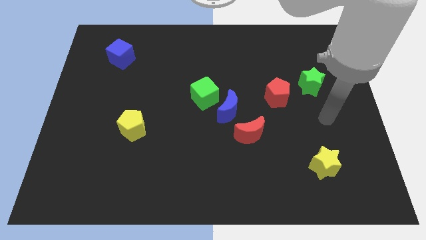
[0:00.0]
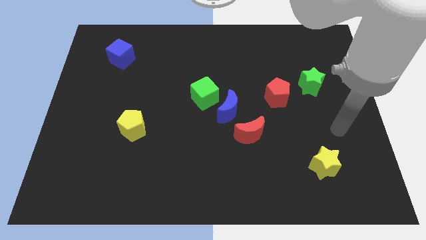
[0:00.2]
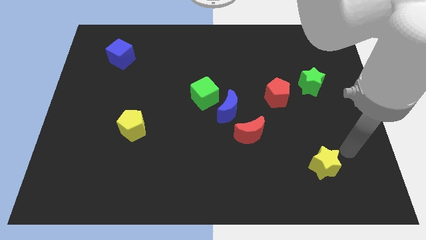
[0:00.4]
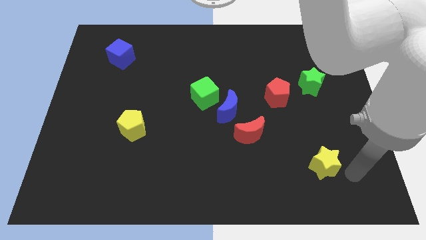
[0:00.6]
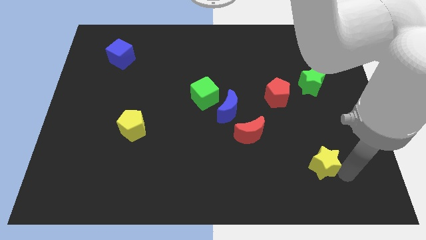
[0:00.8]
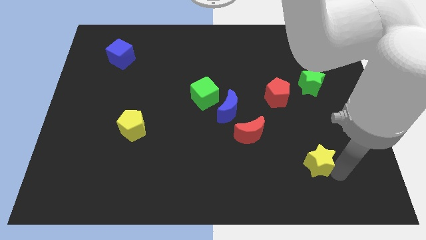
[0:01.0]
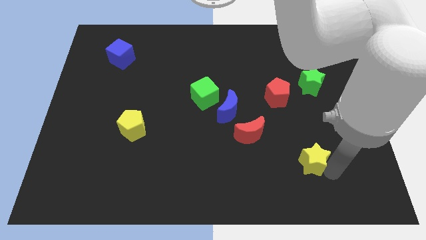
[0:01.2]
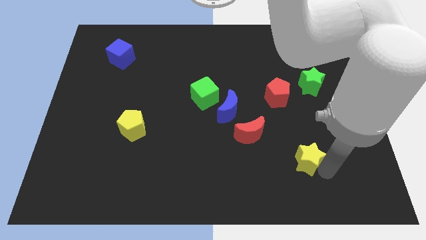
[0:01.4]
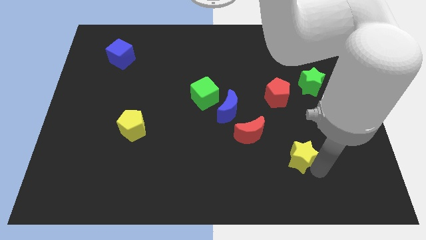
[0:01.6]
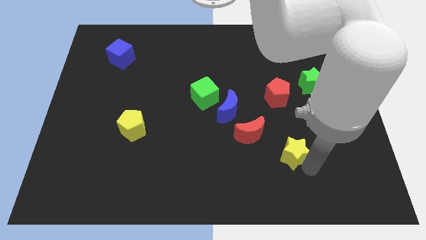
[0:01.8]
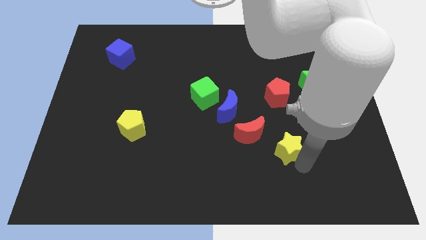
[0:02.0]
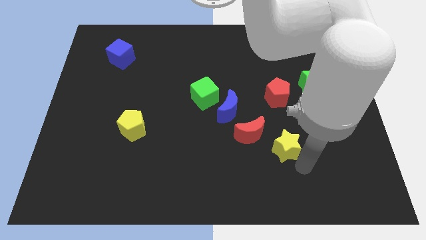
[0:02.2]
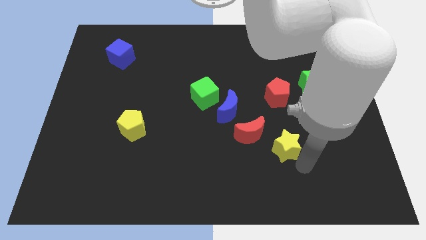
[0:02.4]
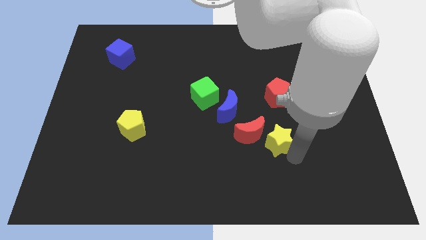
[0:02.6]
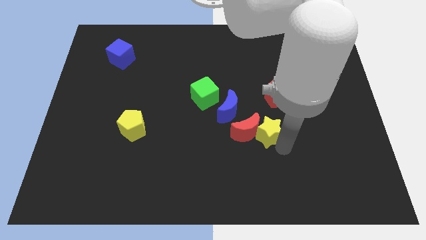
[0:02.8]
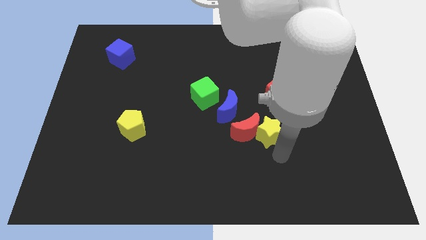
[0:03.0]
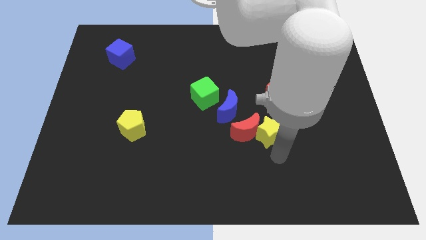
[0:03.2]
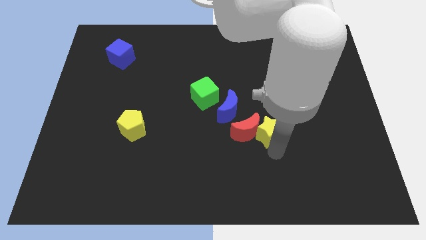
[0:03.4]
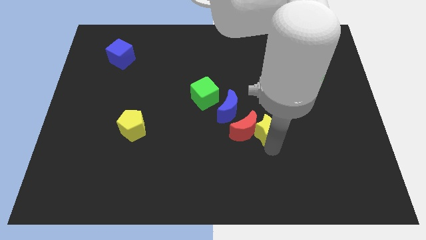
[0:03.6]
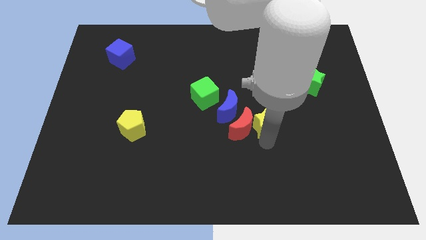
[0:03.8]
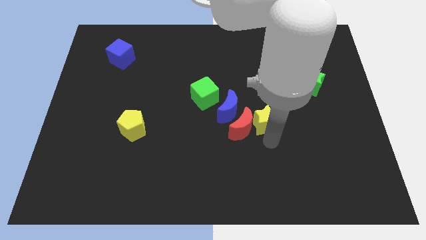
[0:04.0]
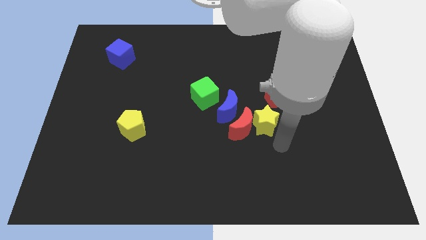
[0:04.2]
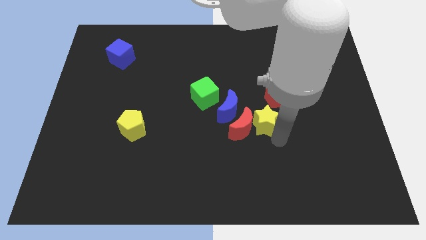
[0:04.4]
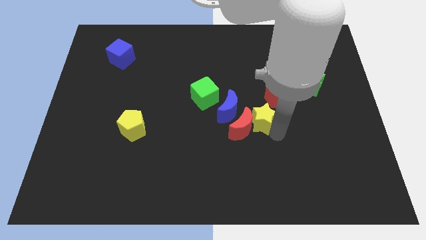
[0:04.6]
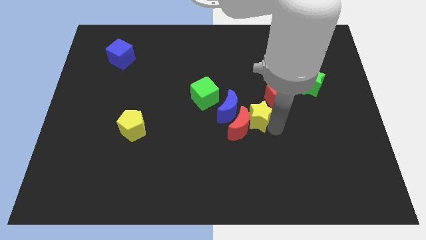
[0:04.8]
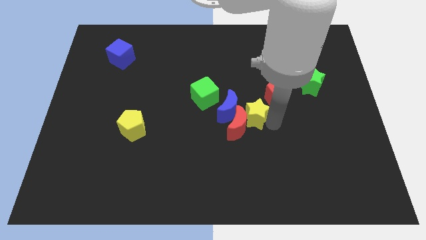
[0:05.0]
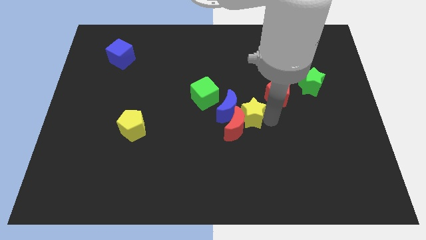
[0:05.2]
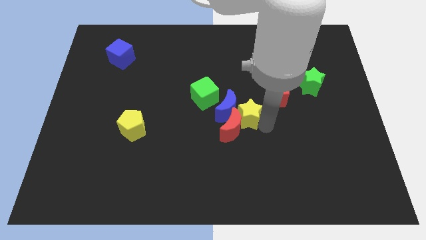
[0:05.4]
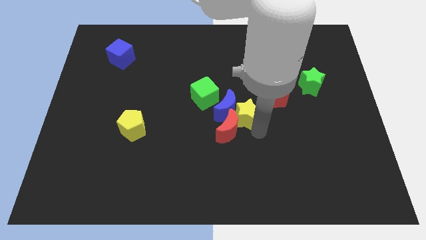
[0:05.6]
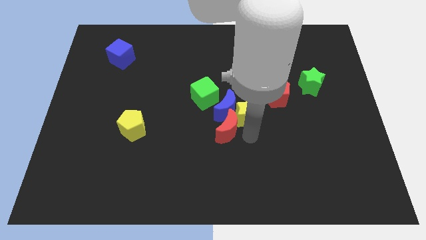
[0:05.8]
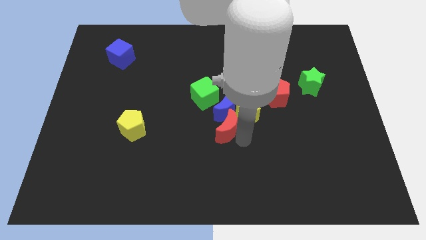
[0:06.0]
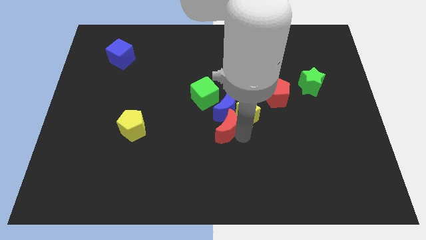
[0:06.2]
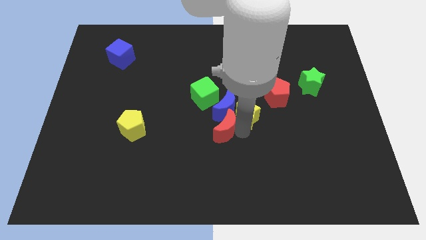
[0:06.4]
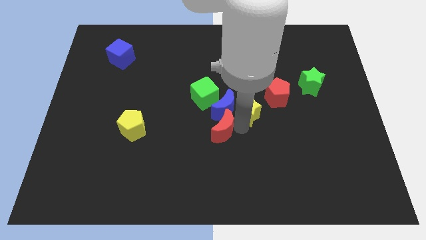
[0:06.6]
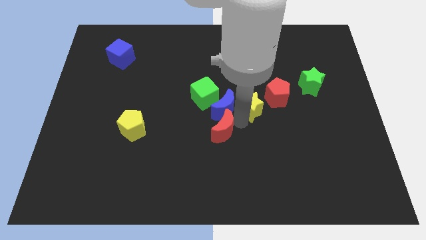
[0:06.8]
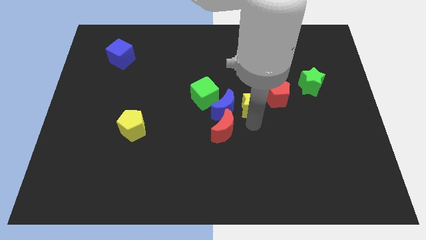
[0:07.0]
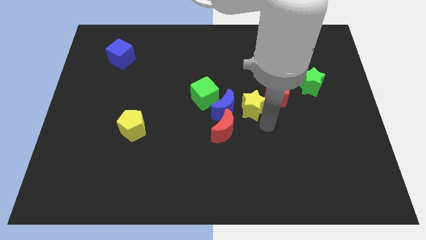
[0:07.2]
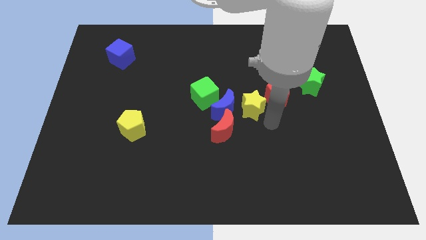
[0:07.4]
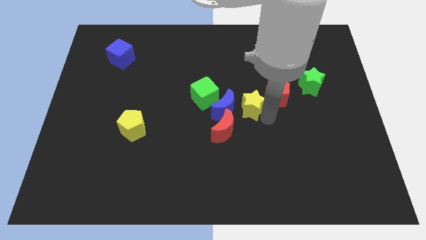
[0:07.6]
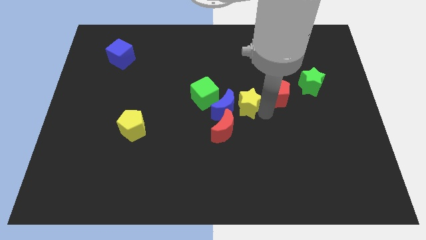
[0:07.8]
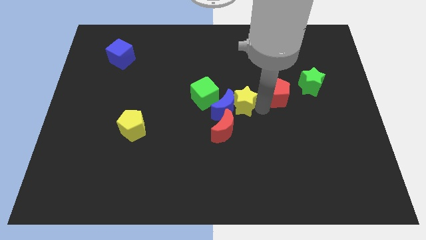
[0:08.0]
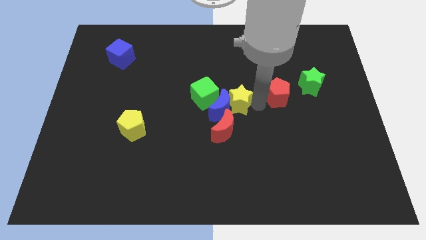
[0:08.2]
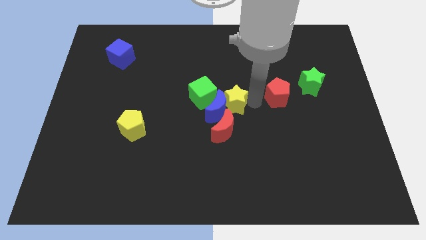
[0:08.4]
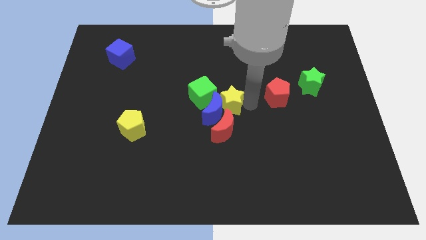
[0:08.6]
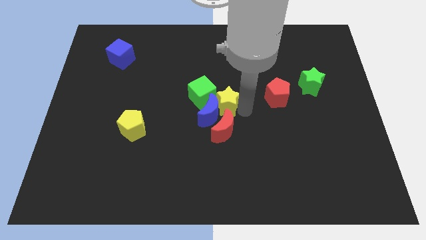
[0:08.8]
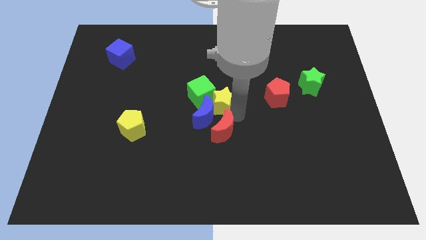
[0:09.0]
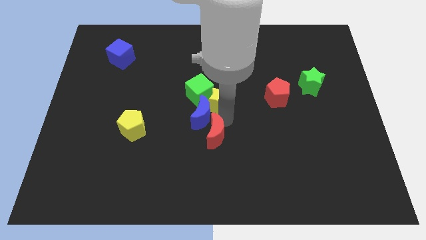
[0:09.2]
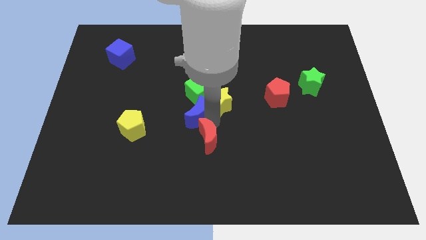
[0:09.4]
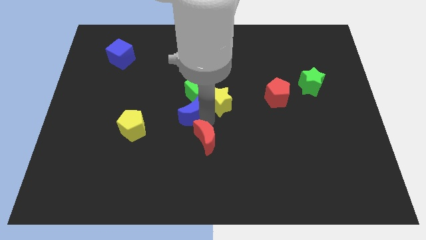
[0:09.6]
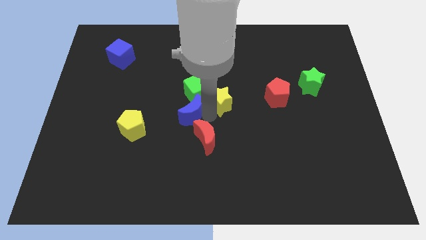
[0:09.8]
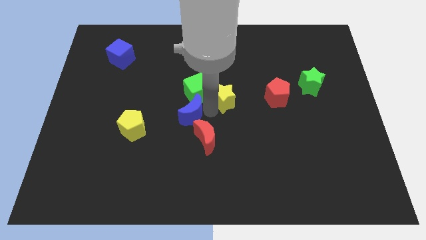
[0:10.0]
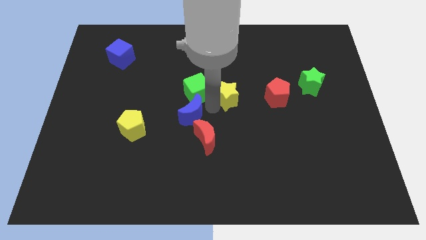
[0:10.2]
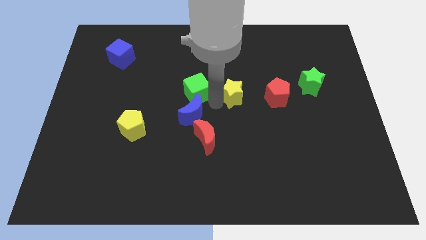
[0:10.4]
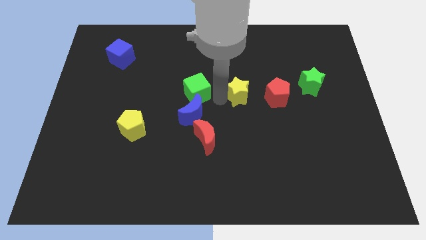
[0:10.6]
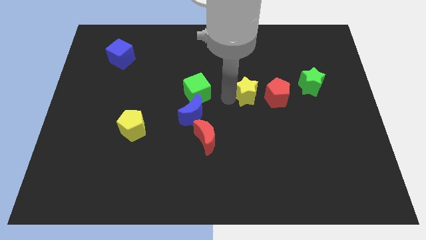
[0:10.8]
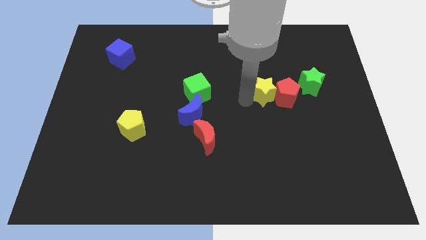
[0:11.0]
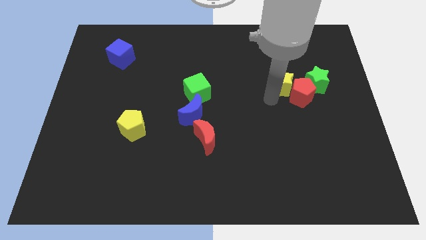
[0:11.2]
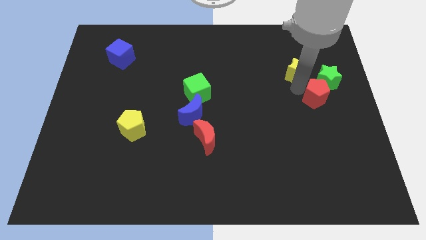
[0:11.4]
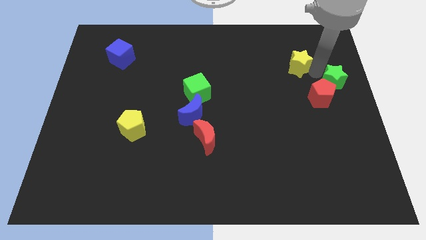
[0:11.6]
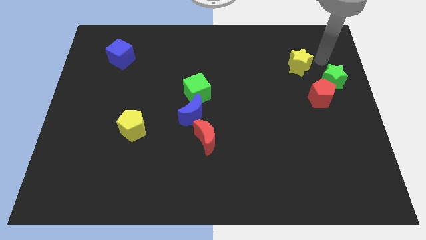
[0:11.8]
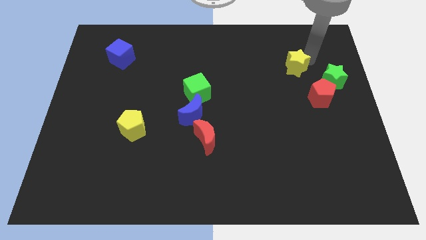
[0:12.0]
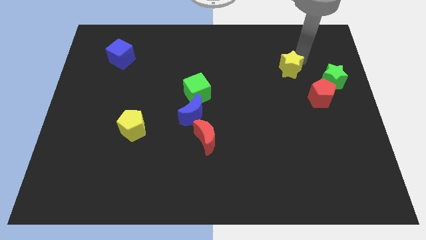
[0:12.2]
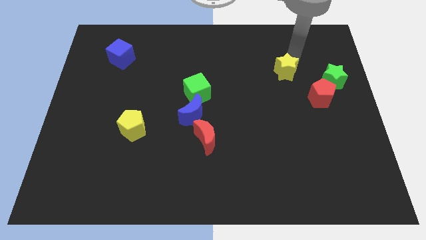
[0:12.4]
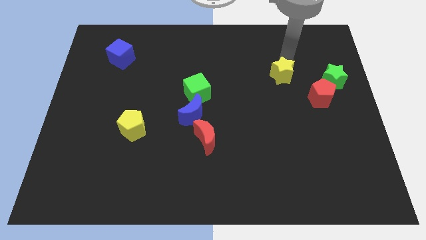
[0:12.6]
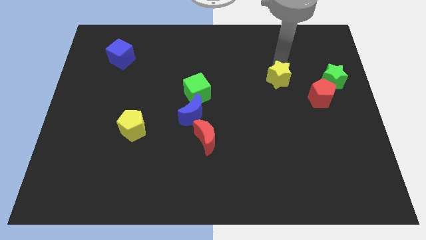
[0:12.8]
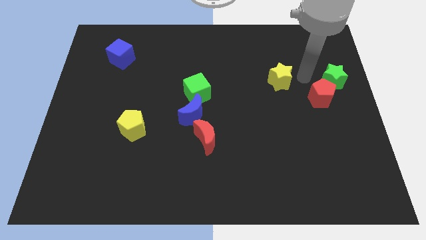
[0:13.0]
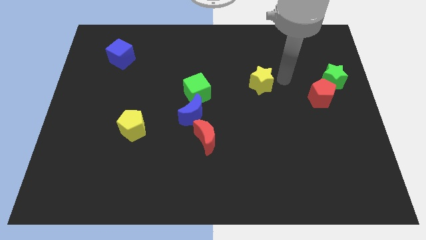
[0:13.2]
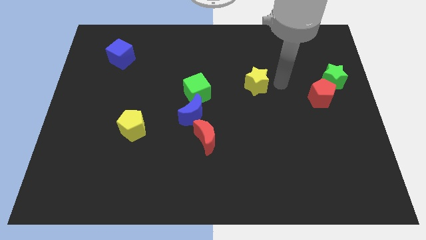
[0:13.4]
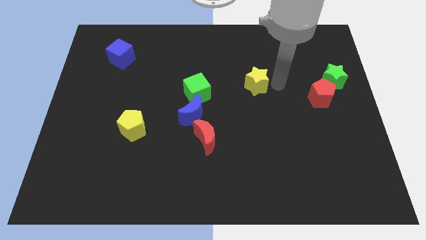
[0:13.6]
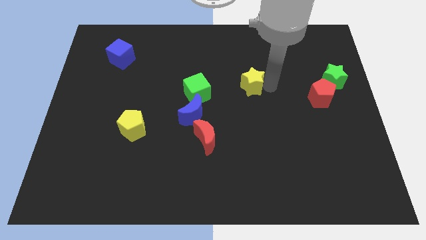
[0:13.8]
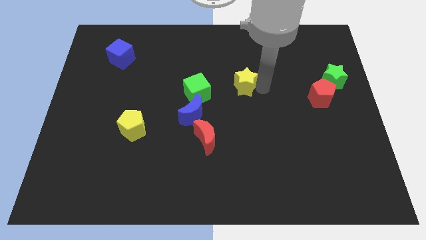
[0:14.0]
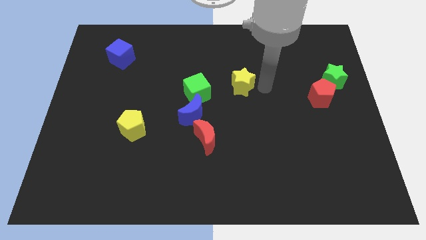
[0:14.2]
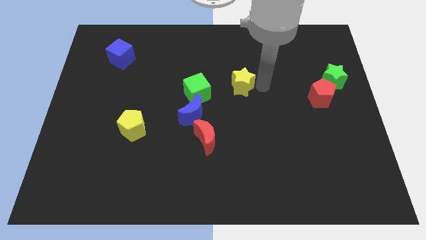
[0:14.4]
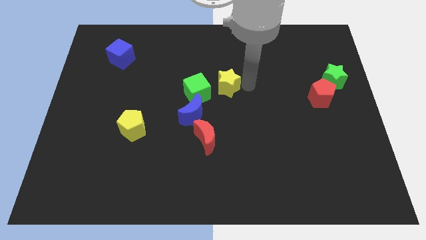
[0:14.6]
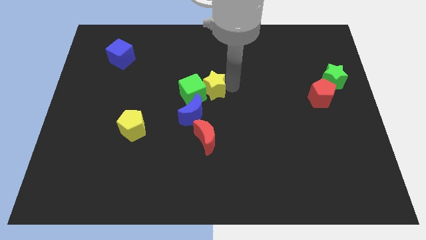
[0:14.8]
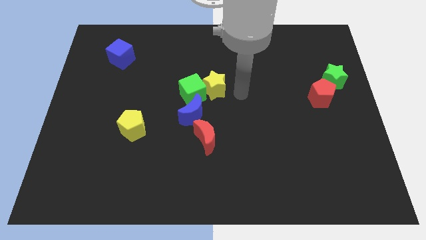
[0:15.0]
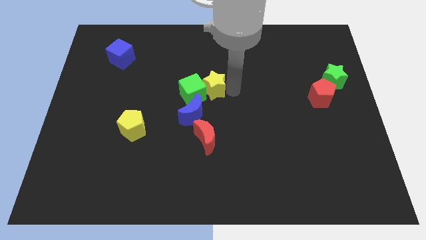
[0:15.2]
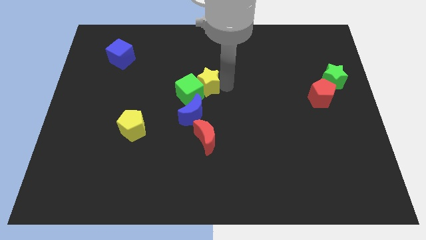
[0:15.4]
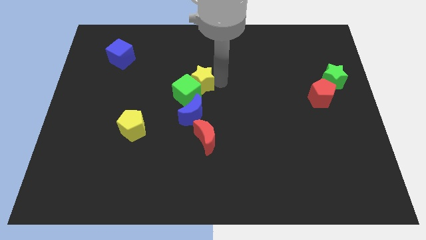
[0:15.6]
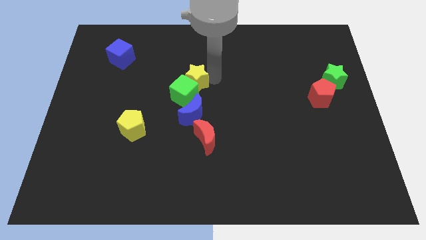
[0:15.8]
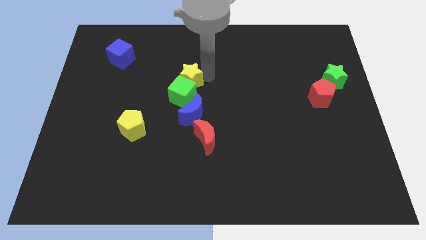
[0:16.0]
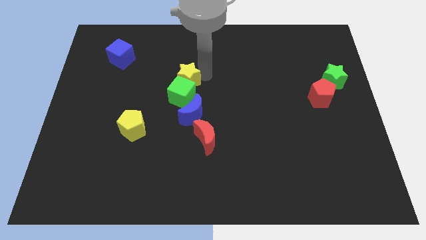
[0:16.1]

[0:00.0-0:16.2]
push the yellow star to the top left of the green cube
